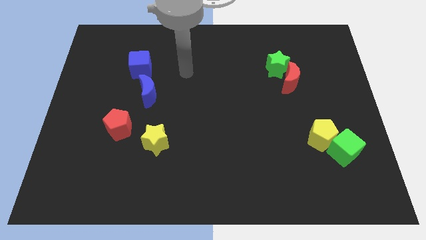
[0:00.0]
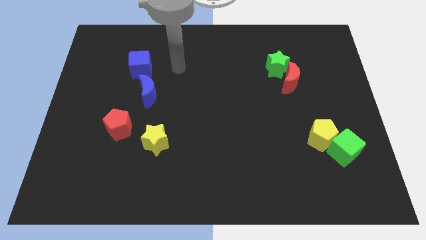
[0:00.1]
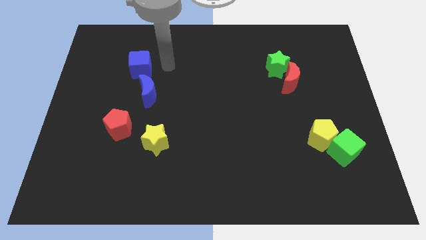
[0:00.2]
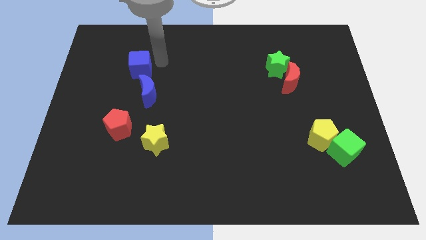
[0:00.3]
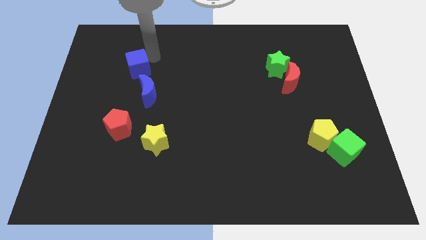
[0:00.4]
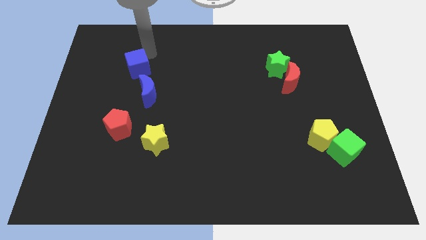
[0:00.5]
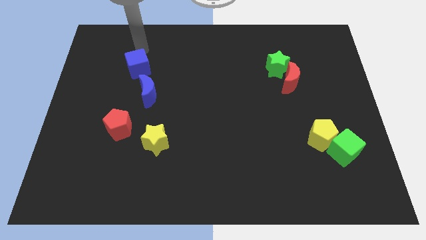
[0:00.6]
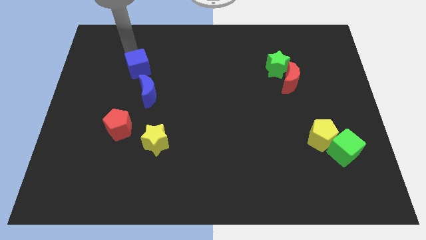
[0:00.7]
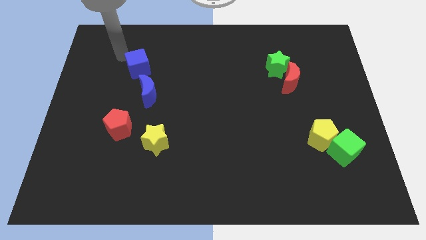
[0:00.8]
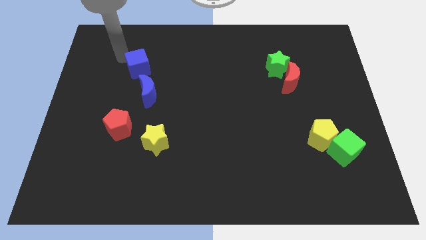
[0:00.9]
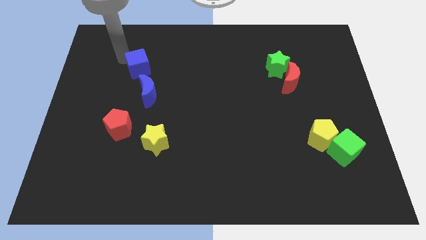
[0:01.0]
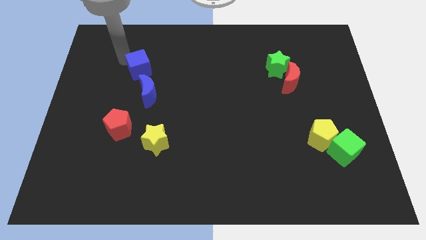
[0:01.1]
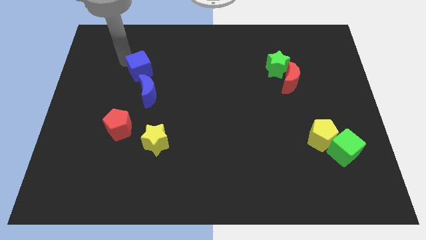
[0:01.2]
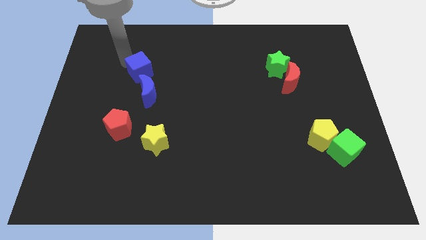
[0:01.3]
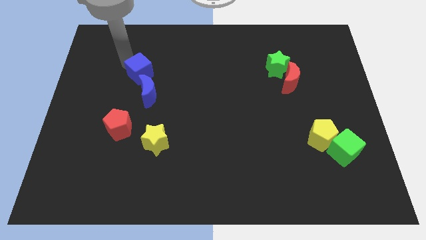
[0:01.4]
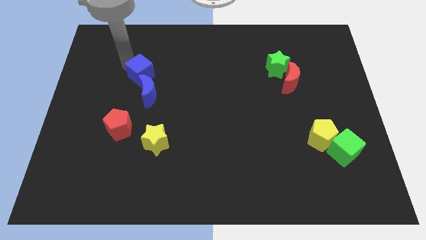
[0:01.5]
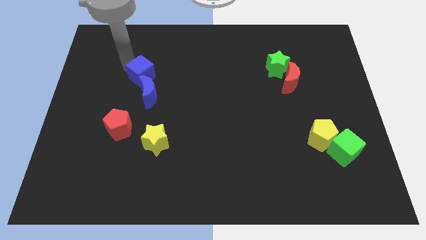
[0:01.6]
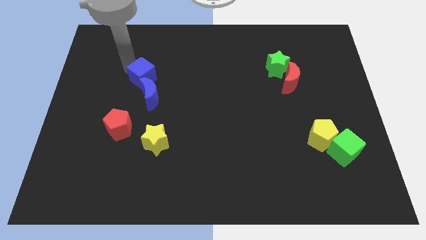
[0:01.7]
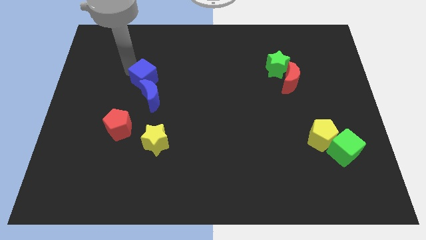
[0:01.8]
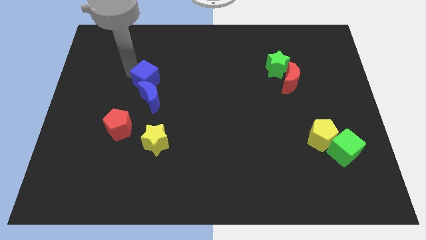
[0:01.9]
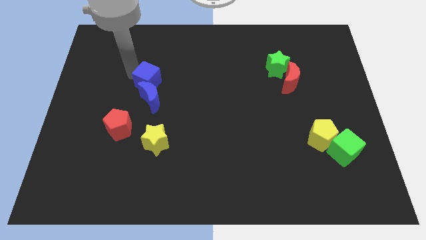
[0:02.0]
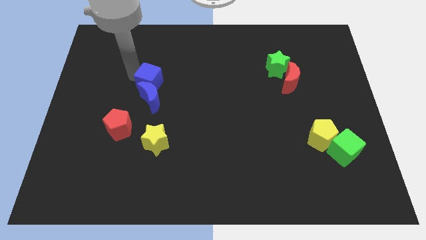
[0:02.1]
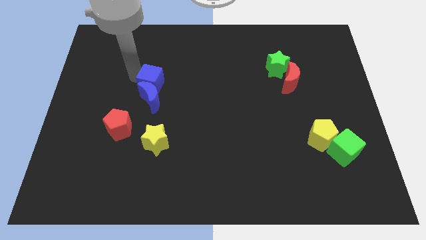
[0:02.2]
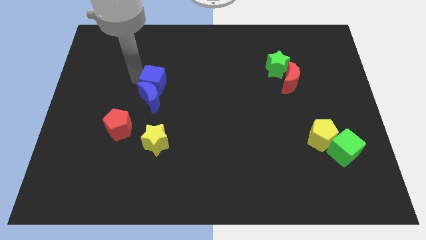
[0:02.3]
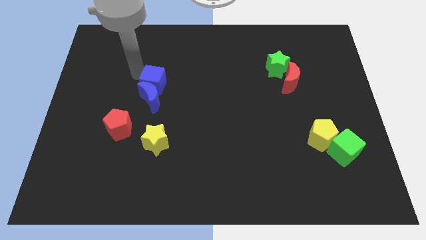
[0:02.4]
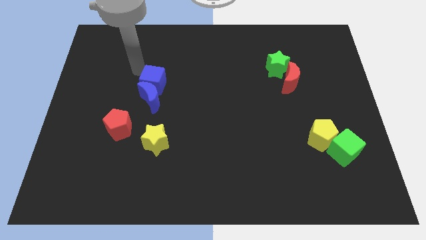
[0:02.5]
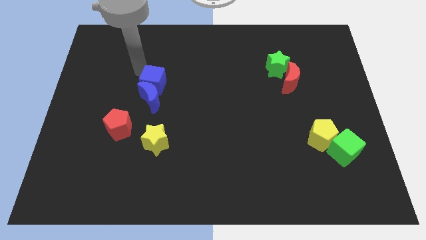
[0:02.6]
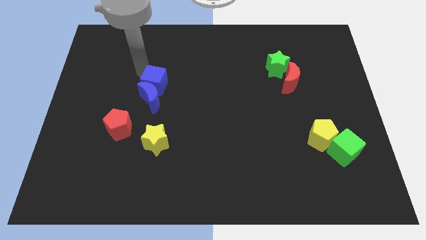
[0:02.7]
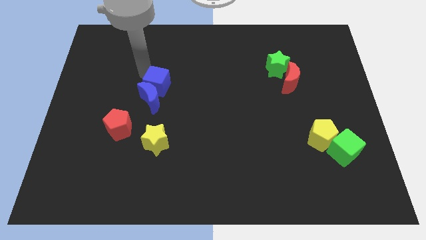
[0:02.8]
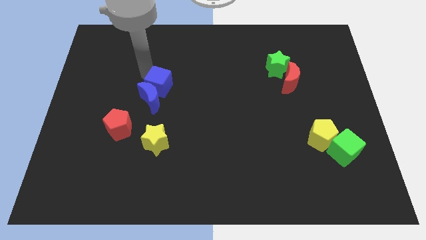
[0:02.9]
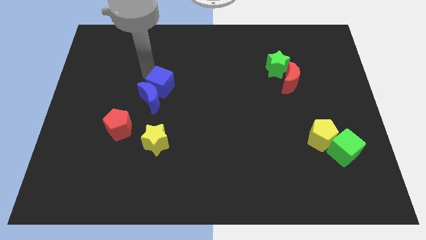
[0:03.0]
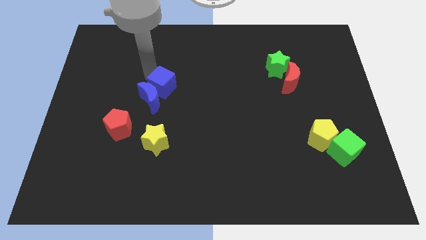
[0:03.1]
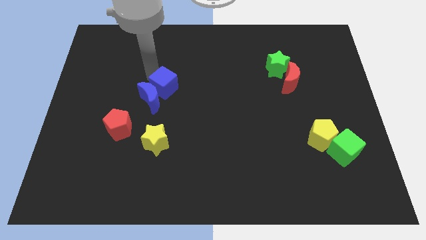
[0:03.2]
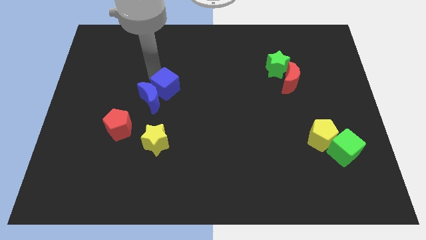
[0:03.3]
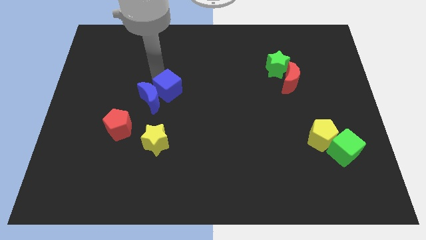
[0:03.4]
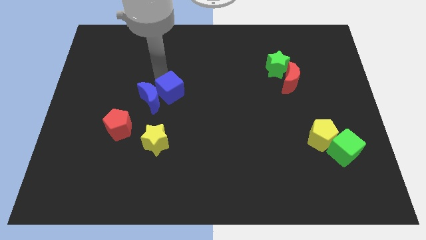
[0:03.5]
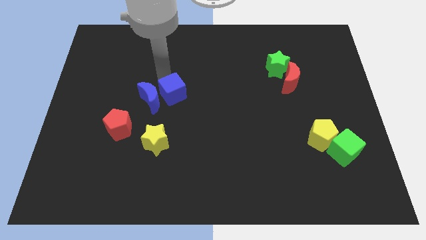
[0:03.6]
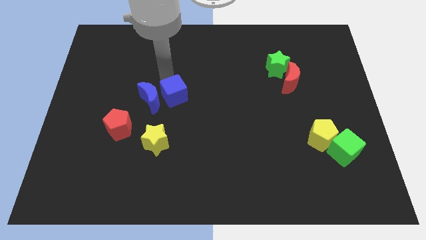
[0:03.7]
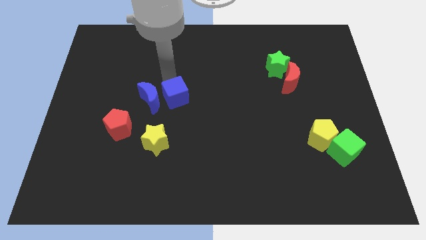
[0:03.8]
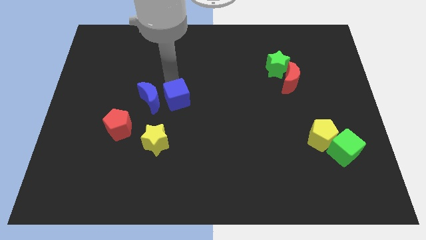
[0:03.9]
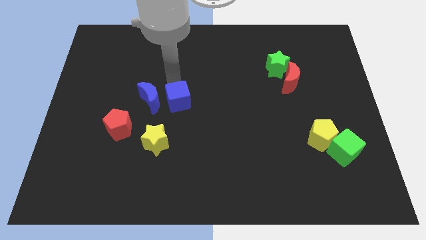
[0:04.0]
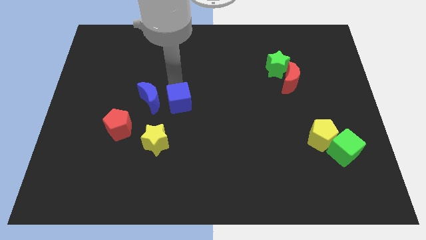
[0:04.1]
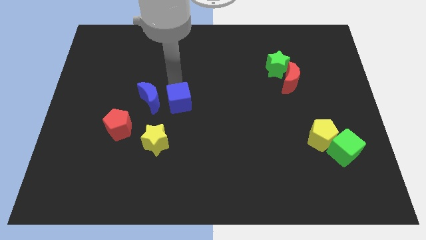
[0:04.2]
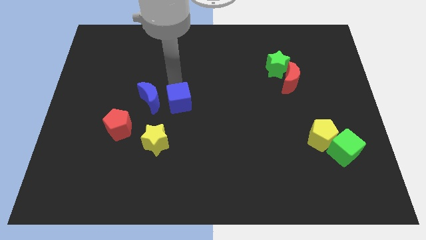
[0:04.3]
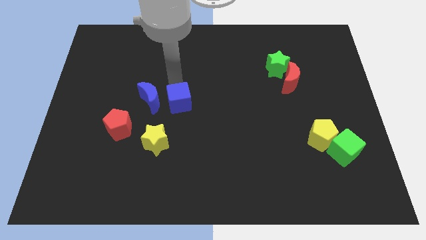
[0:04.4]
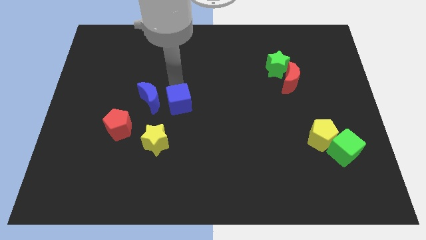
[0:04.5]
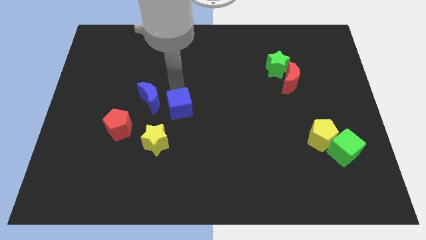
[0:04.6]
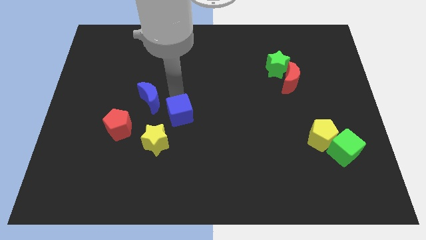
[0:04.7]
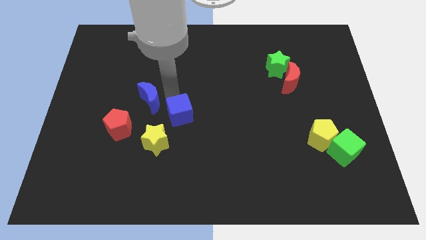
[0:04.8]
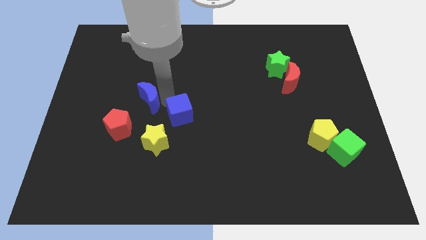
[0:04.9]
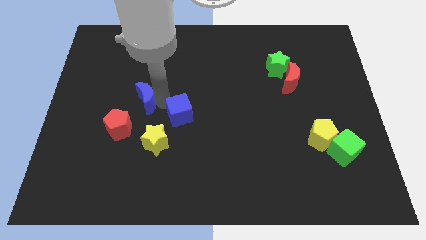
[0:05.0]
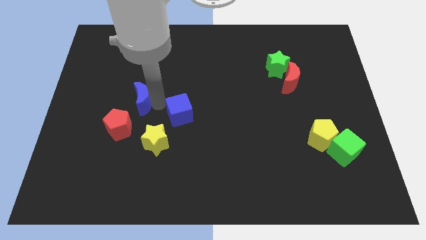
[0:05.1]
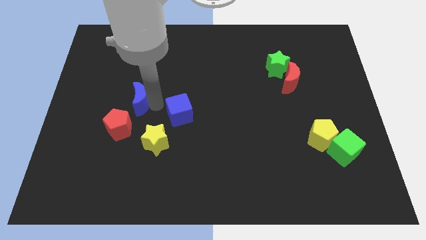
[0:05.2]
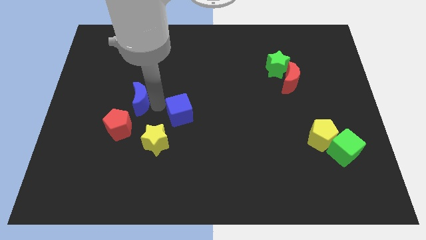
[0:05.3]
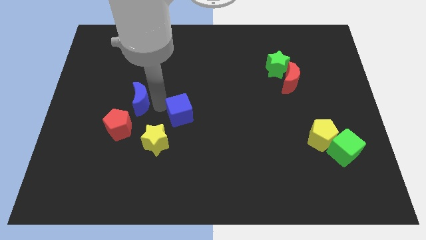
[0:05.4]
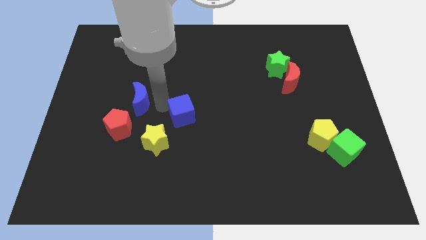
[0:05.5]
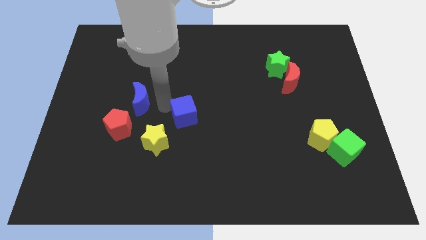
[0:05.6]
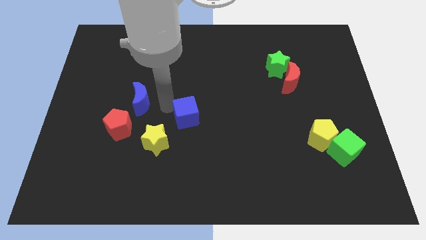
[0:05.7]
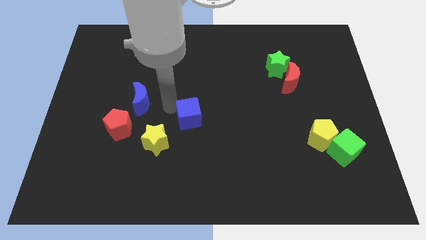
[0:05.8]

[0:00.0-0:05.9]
slide the blue cube down and to the right diagonally

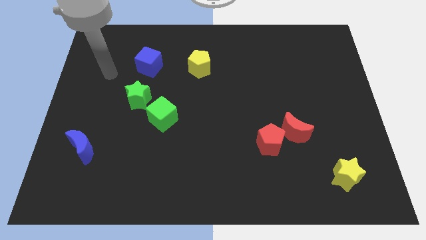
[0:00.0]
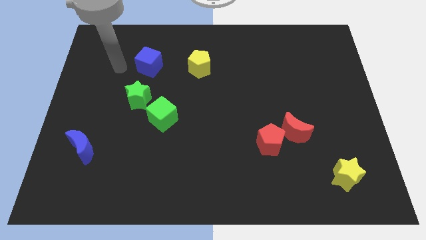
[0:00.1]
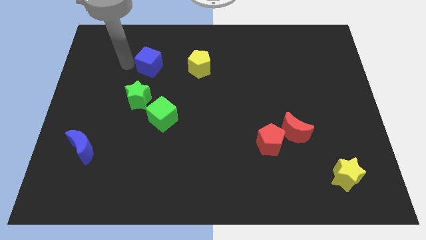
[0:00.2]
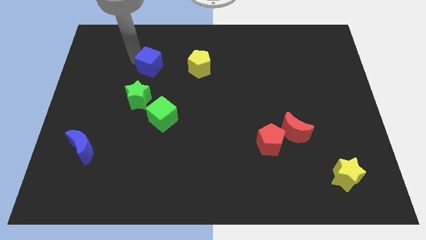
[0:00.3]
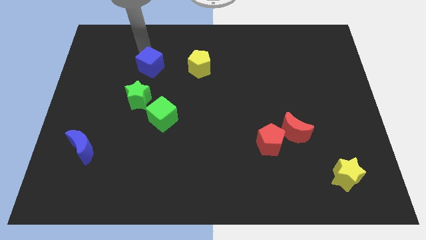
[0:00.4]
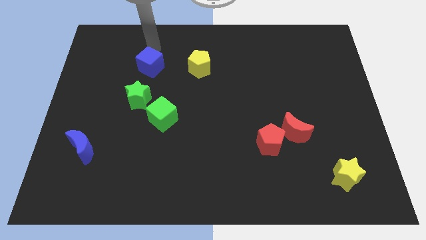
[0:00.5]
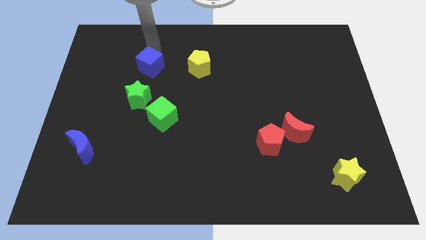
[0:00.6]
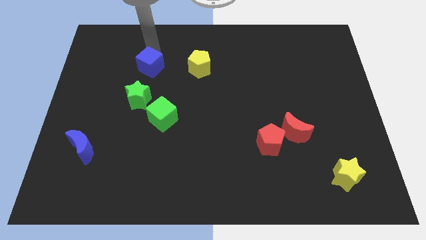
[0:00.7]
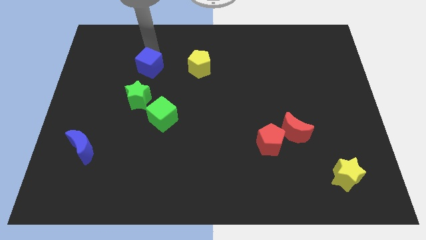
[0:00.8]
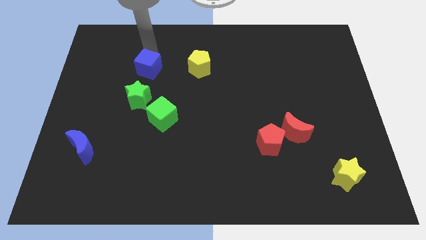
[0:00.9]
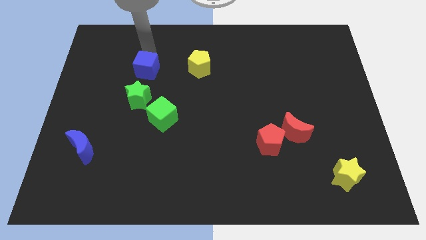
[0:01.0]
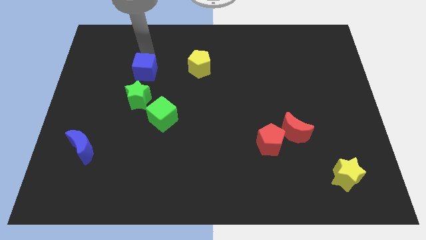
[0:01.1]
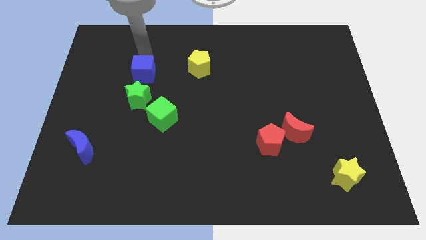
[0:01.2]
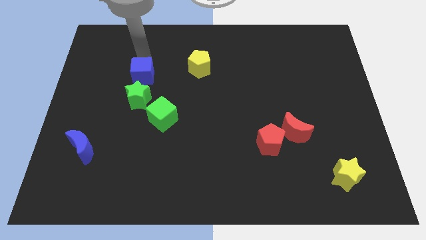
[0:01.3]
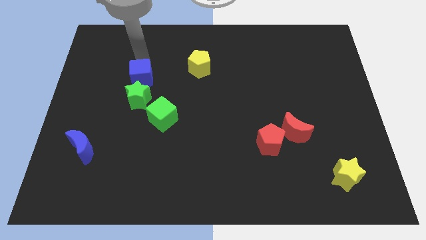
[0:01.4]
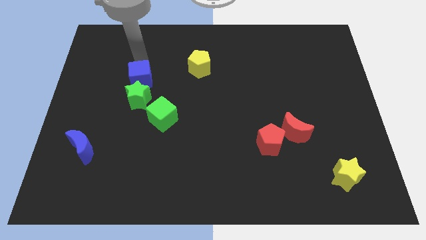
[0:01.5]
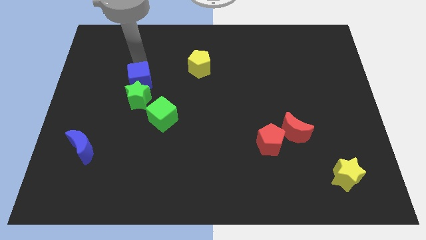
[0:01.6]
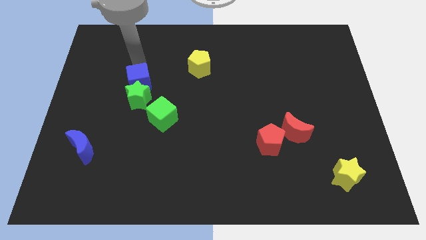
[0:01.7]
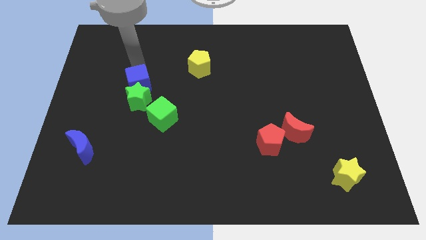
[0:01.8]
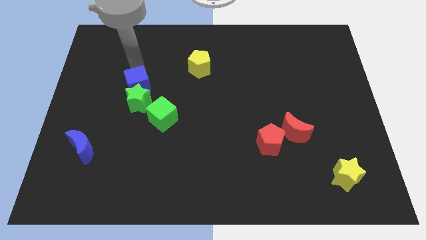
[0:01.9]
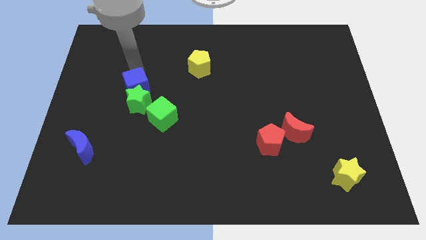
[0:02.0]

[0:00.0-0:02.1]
push the blue cube downwards a bit

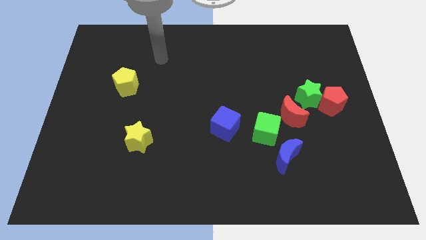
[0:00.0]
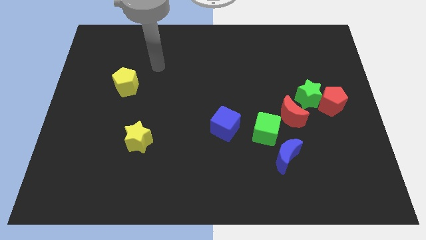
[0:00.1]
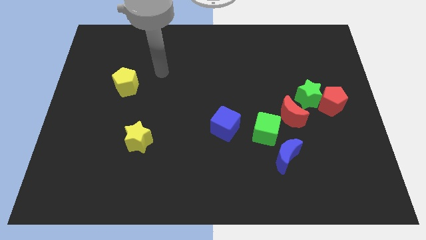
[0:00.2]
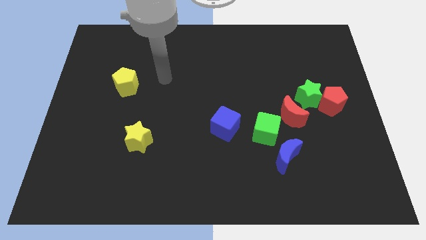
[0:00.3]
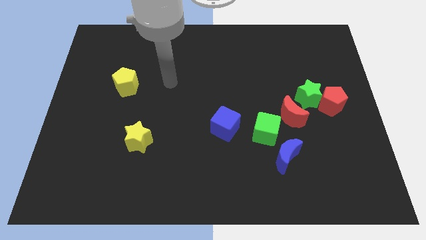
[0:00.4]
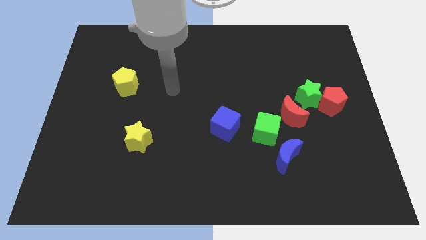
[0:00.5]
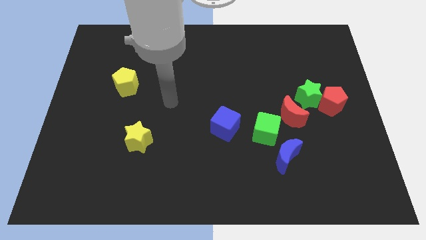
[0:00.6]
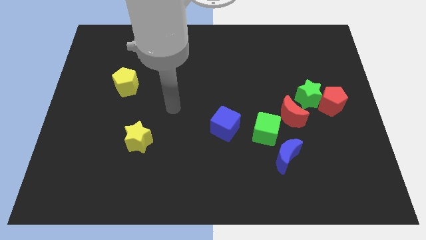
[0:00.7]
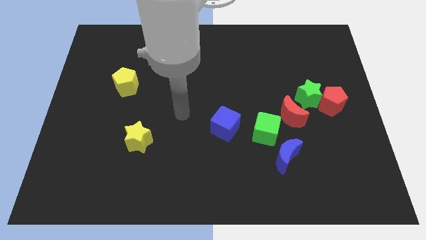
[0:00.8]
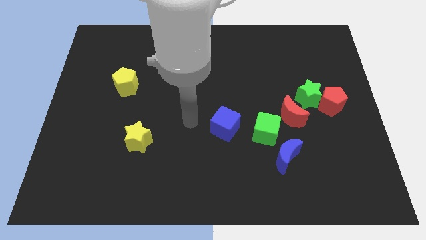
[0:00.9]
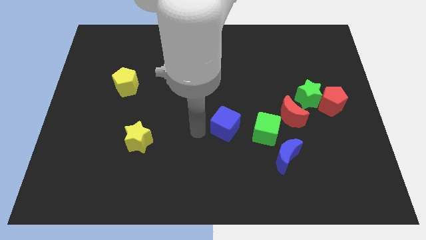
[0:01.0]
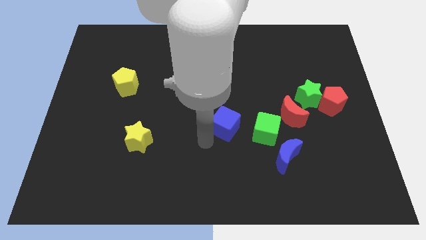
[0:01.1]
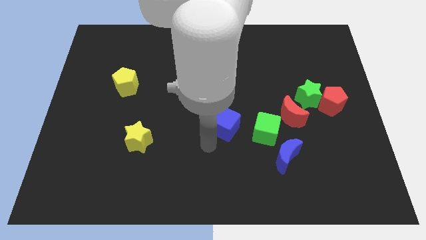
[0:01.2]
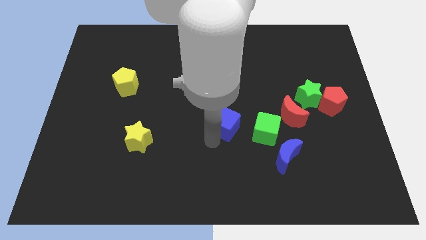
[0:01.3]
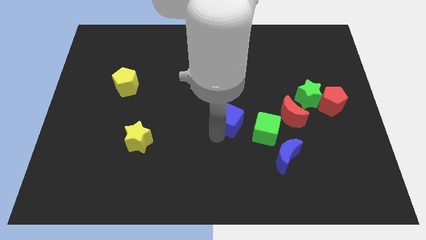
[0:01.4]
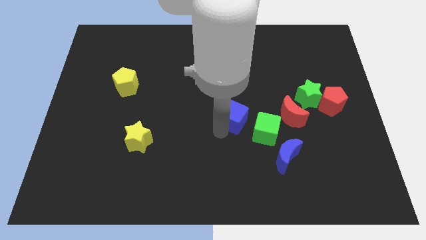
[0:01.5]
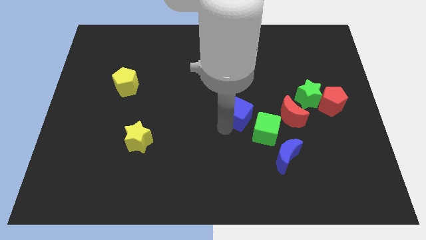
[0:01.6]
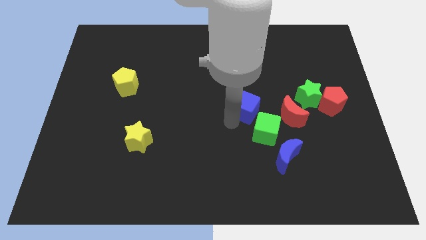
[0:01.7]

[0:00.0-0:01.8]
slide the blue cube up and to the right diagonally a little
